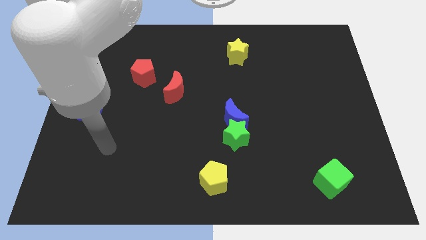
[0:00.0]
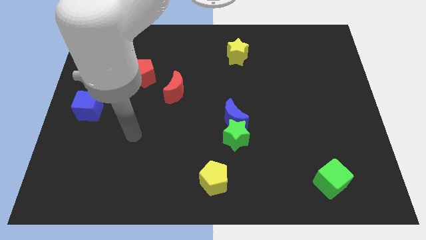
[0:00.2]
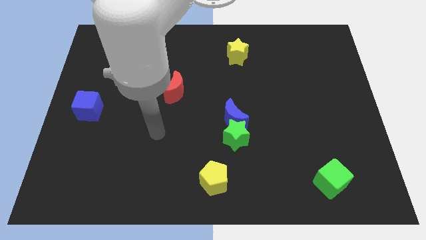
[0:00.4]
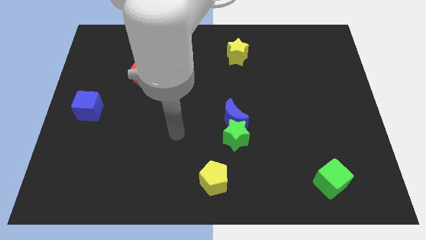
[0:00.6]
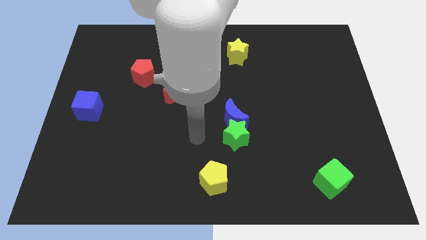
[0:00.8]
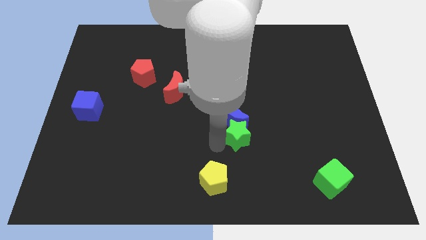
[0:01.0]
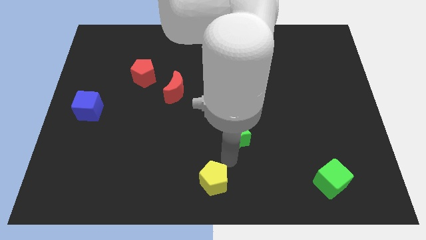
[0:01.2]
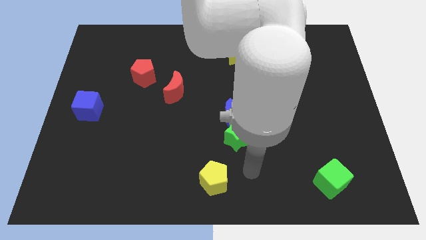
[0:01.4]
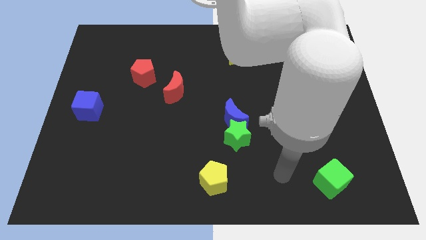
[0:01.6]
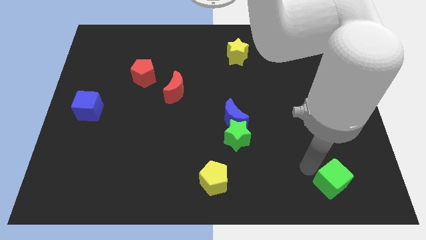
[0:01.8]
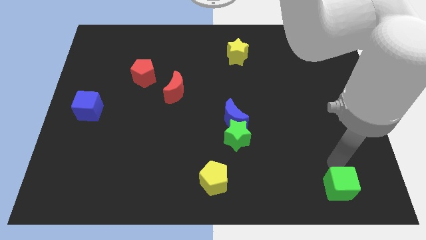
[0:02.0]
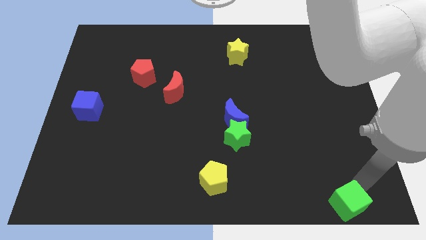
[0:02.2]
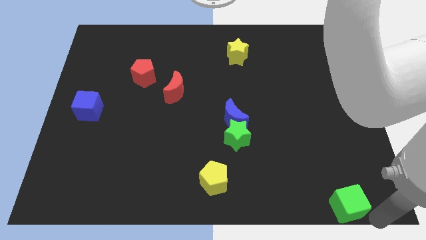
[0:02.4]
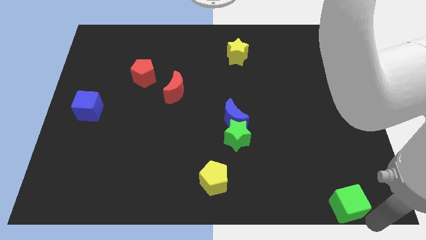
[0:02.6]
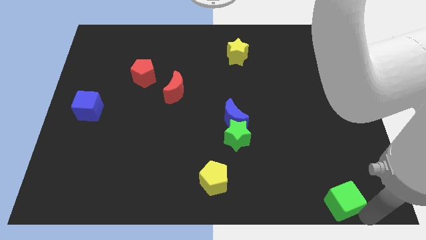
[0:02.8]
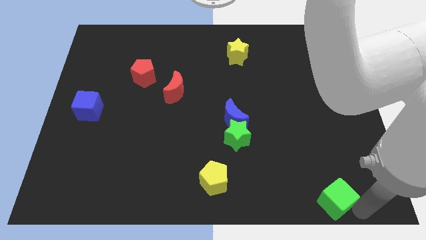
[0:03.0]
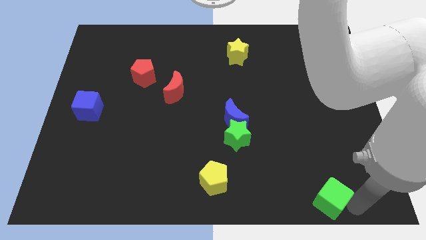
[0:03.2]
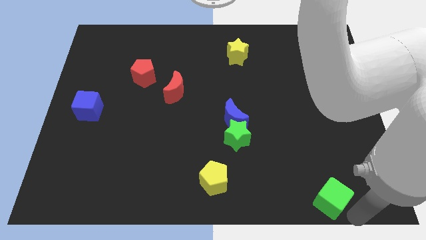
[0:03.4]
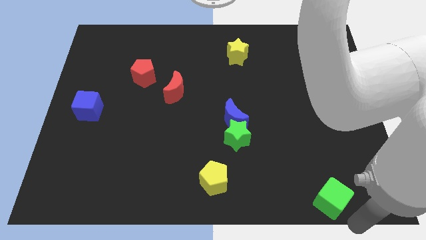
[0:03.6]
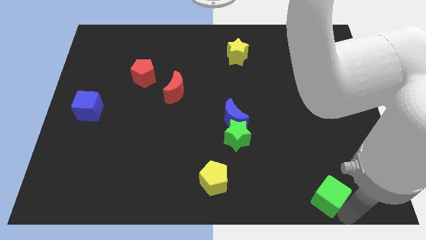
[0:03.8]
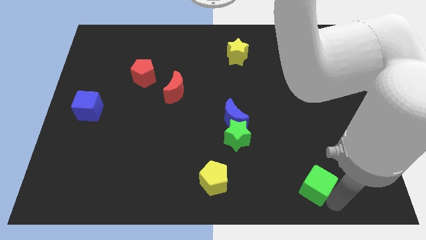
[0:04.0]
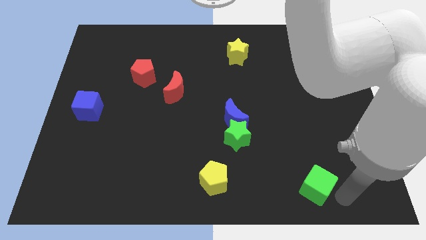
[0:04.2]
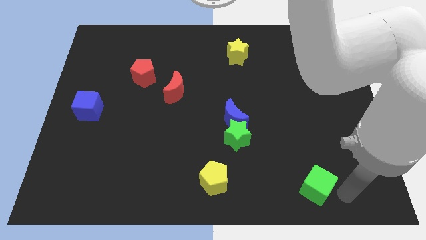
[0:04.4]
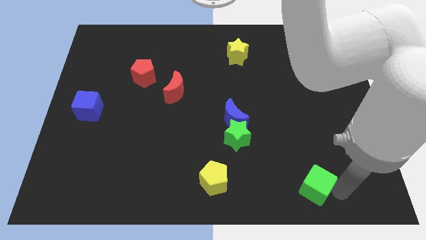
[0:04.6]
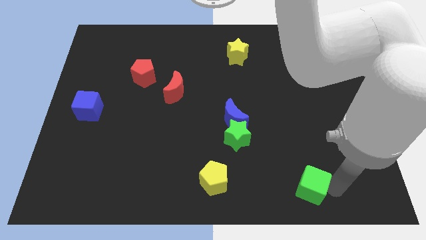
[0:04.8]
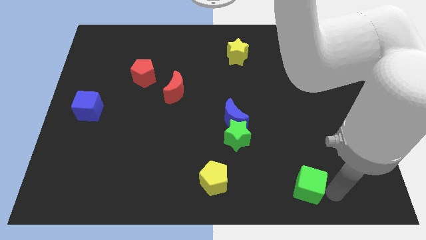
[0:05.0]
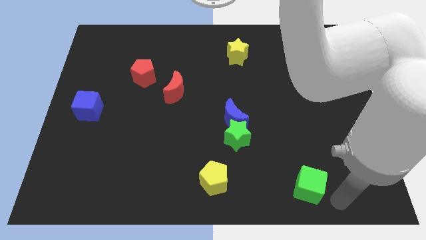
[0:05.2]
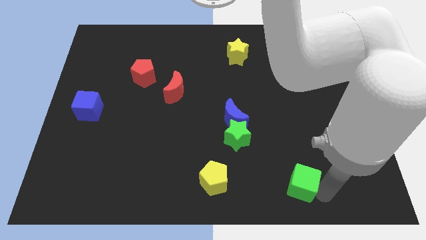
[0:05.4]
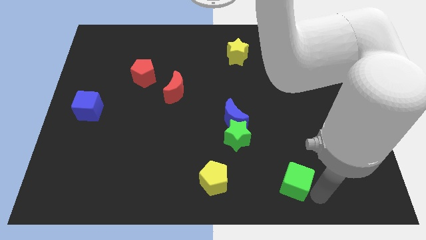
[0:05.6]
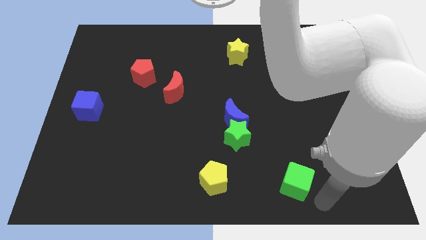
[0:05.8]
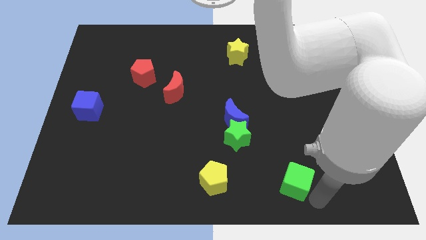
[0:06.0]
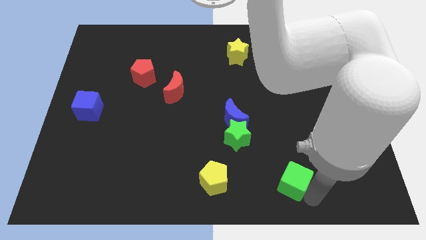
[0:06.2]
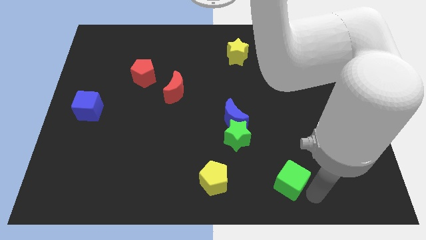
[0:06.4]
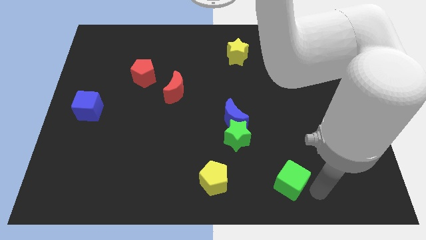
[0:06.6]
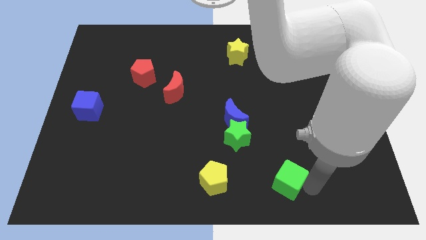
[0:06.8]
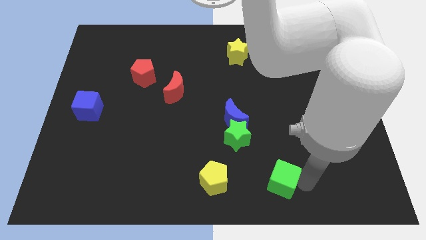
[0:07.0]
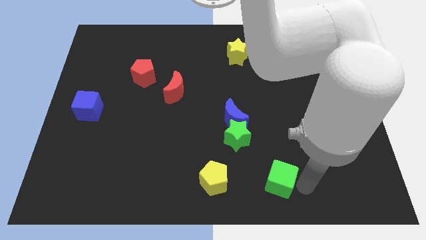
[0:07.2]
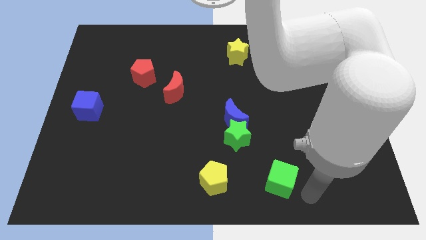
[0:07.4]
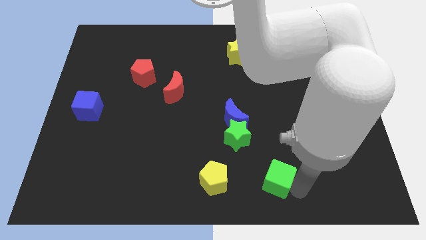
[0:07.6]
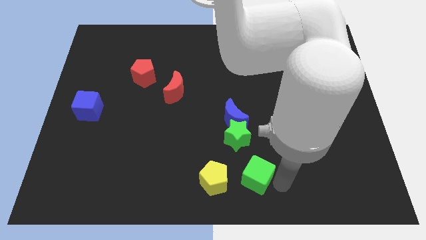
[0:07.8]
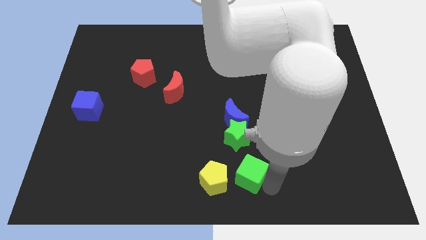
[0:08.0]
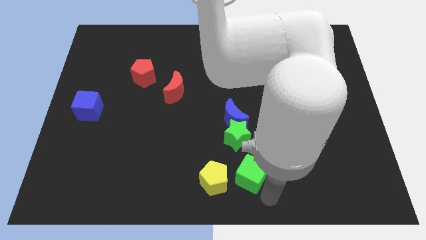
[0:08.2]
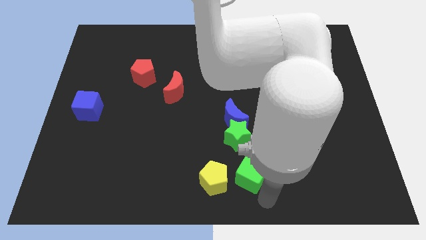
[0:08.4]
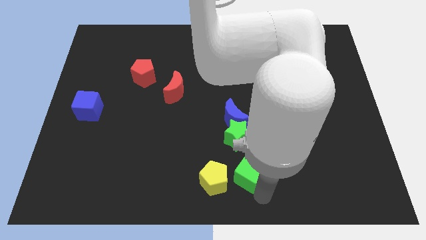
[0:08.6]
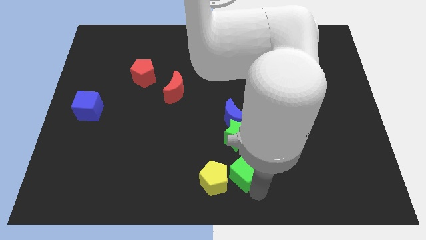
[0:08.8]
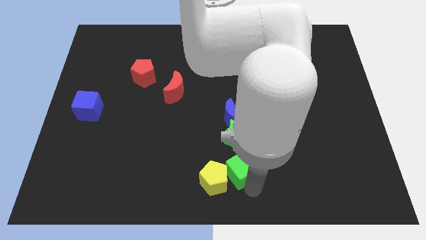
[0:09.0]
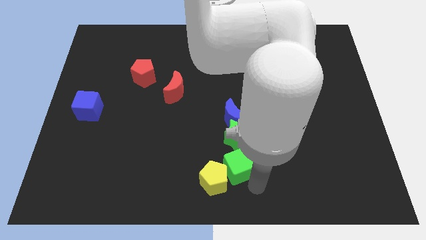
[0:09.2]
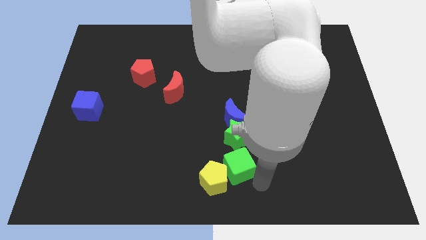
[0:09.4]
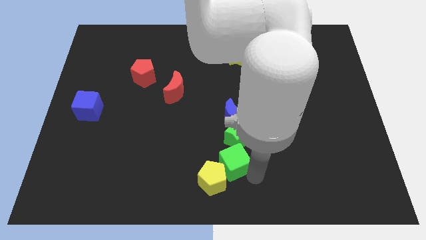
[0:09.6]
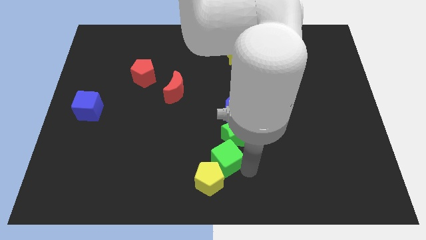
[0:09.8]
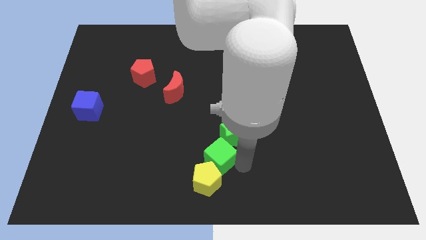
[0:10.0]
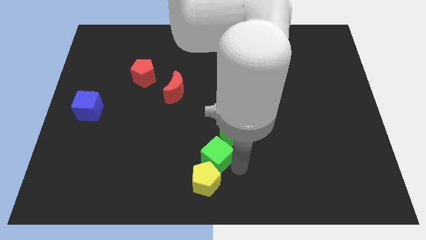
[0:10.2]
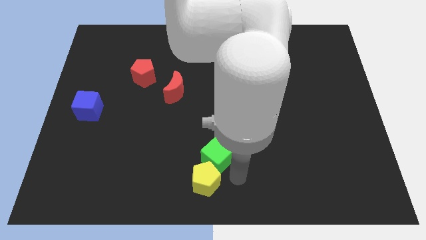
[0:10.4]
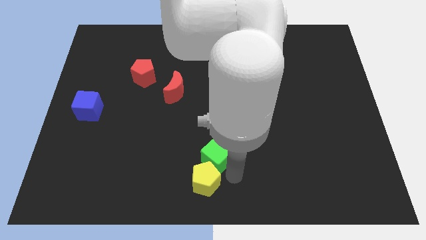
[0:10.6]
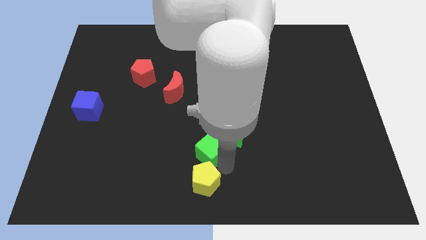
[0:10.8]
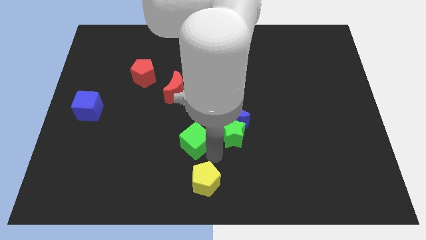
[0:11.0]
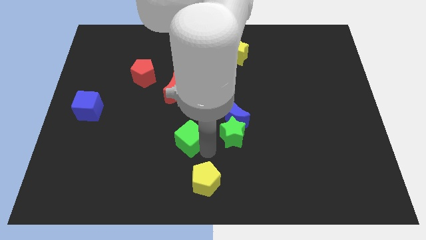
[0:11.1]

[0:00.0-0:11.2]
move the green cube below the red moon

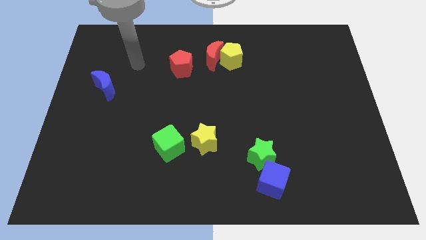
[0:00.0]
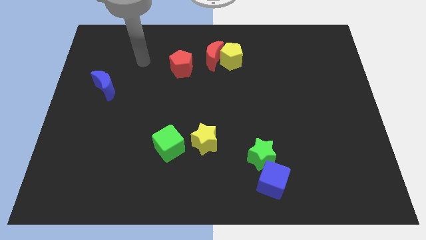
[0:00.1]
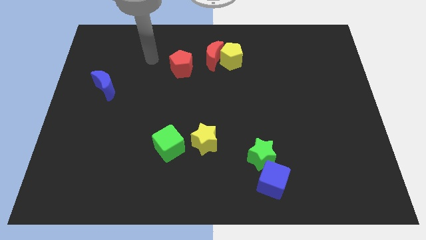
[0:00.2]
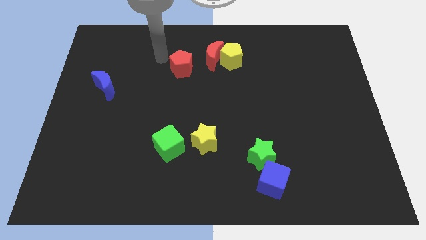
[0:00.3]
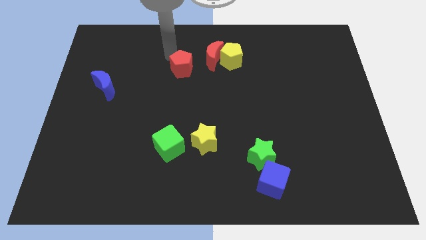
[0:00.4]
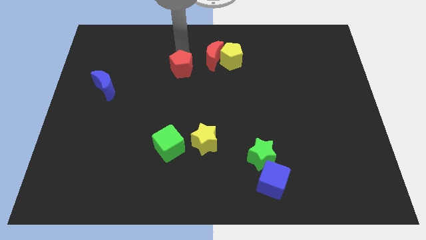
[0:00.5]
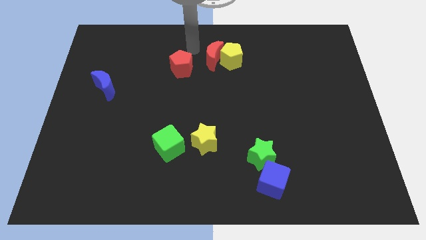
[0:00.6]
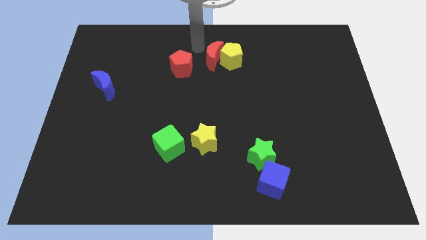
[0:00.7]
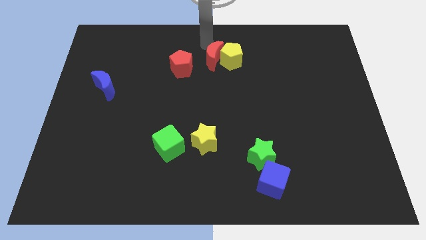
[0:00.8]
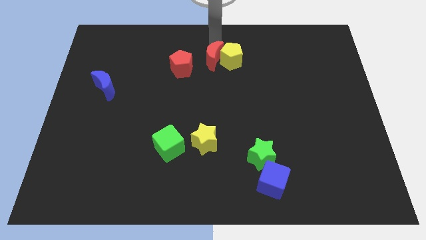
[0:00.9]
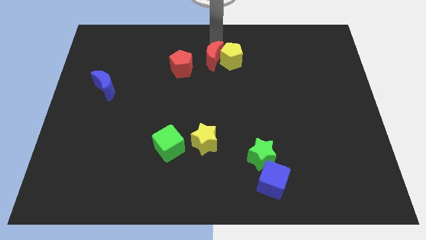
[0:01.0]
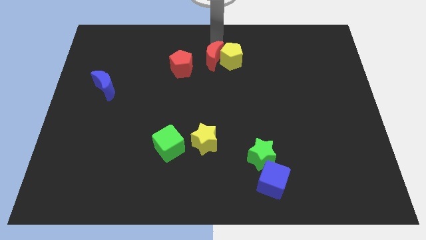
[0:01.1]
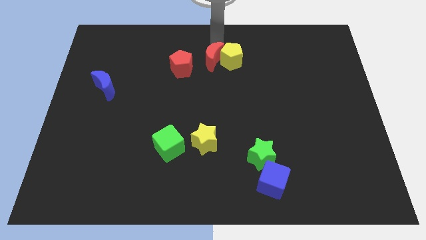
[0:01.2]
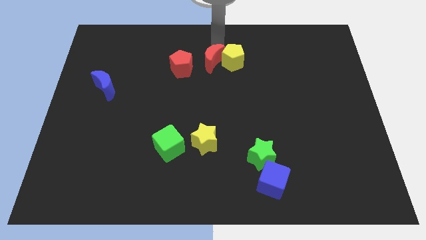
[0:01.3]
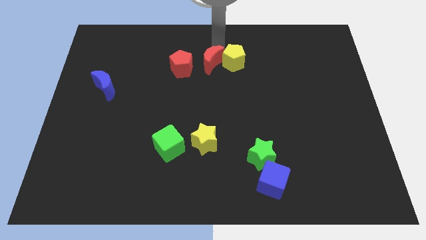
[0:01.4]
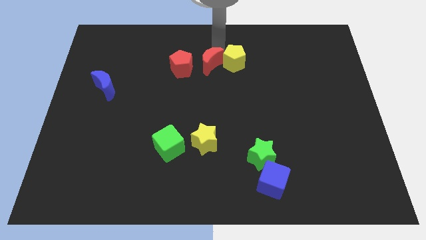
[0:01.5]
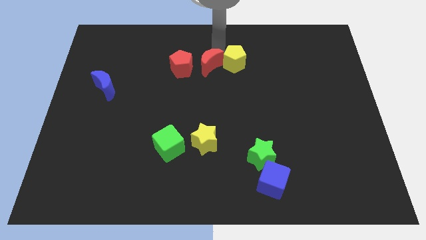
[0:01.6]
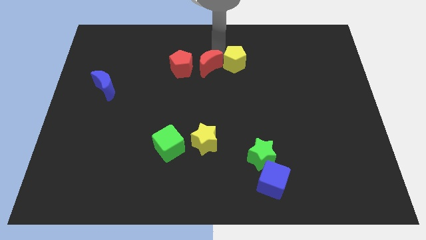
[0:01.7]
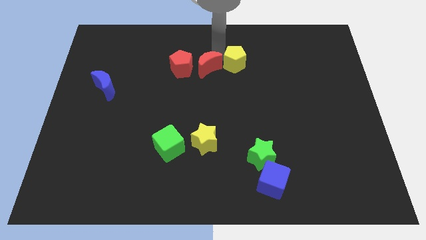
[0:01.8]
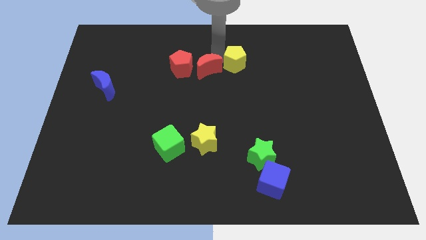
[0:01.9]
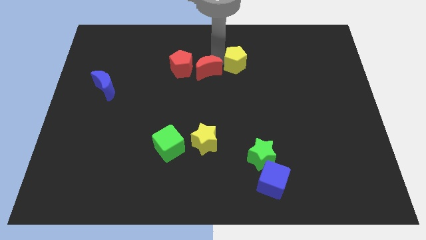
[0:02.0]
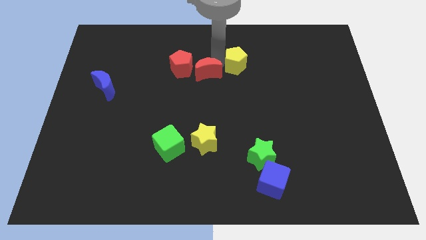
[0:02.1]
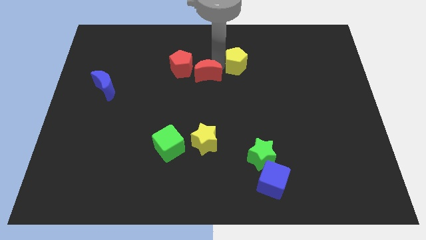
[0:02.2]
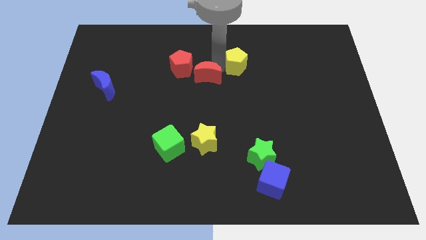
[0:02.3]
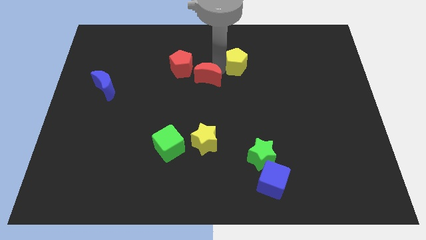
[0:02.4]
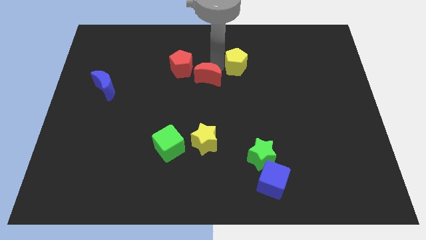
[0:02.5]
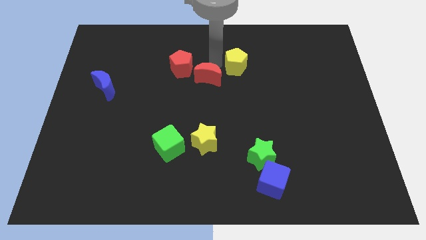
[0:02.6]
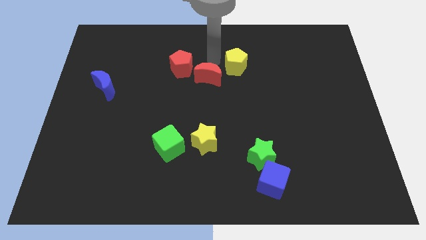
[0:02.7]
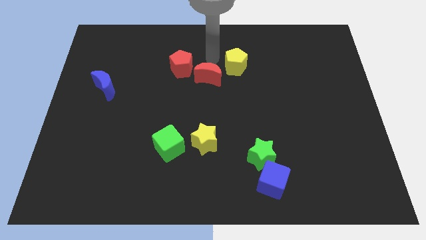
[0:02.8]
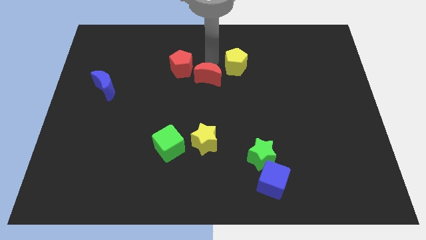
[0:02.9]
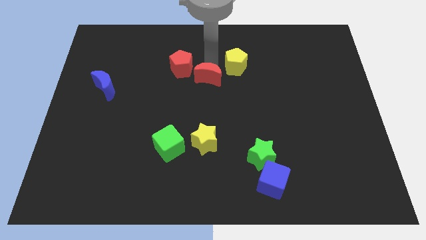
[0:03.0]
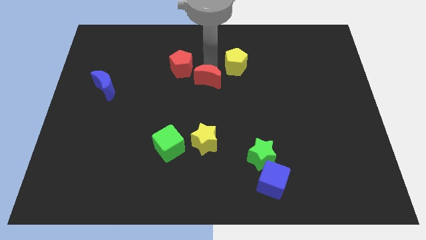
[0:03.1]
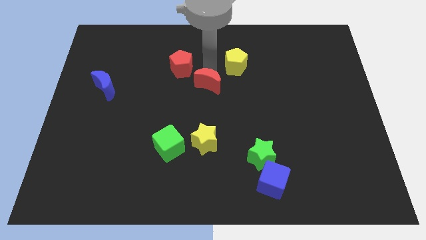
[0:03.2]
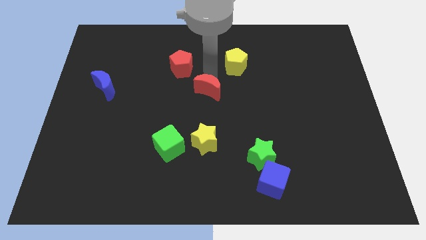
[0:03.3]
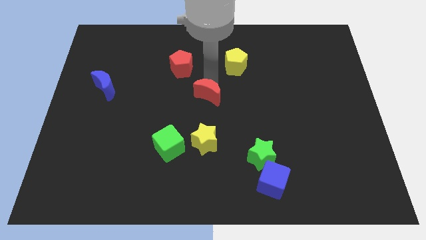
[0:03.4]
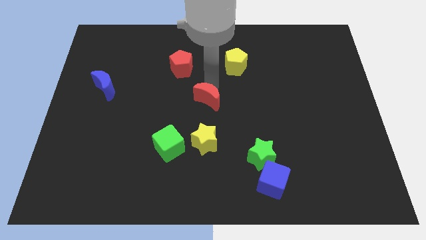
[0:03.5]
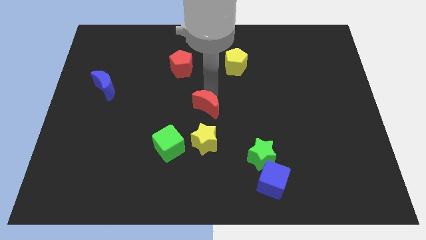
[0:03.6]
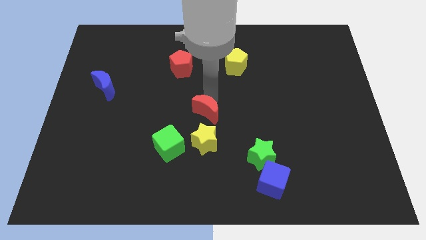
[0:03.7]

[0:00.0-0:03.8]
put the red moon diagonally up and to the right of the green cube
